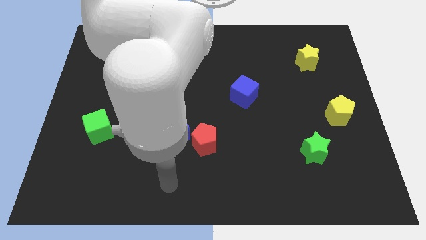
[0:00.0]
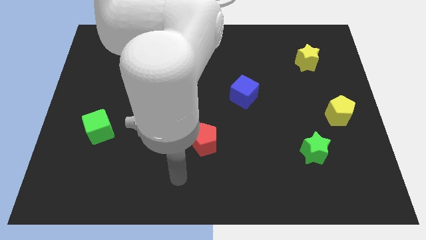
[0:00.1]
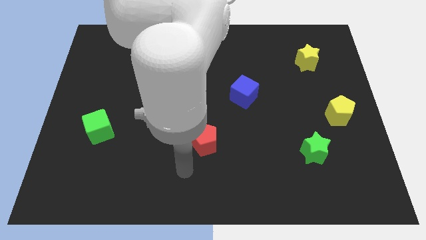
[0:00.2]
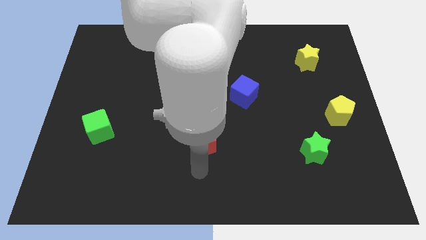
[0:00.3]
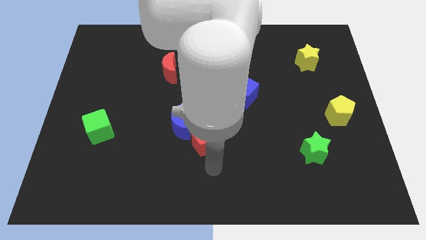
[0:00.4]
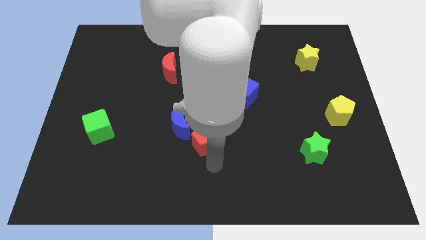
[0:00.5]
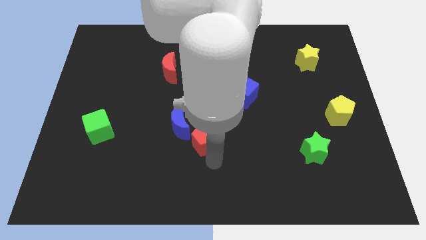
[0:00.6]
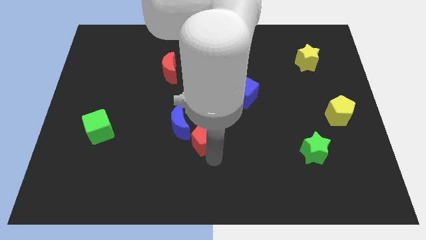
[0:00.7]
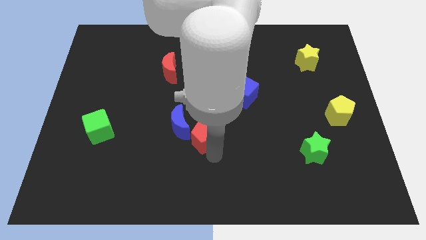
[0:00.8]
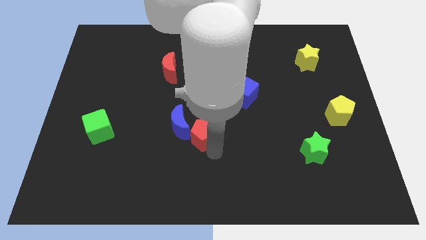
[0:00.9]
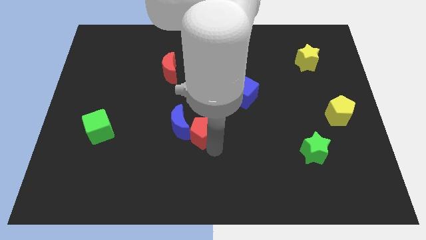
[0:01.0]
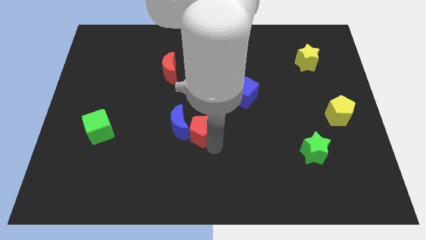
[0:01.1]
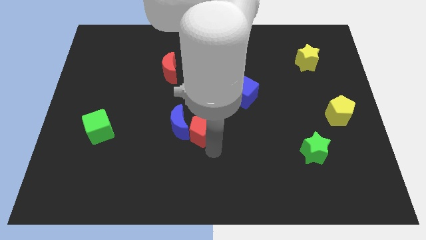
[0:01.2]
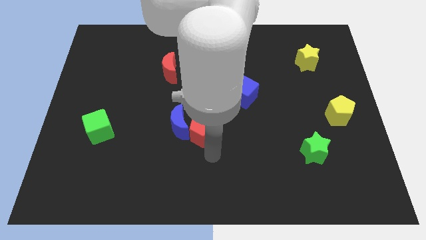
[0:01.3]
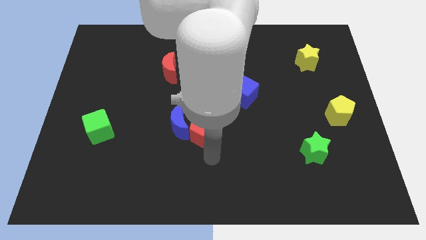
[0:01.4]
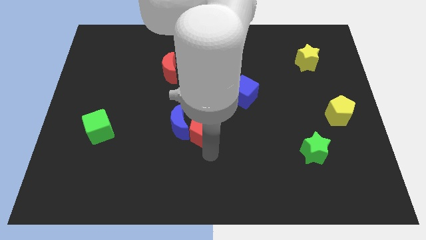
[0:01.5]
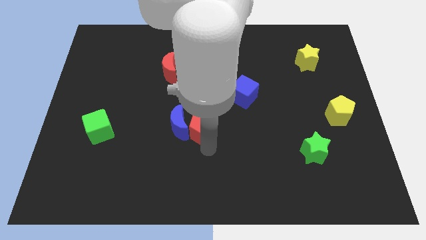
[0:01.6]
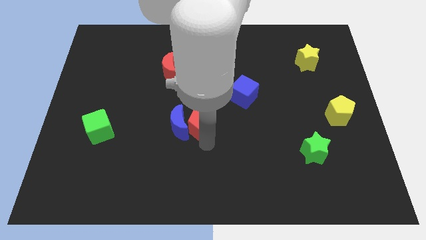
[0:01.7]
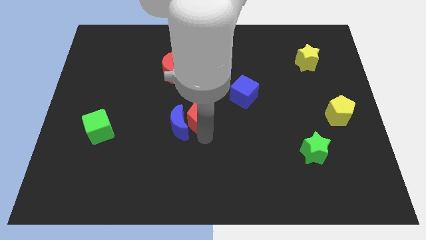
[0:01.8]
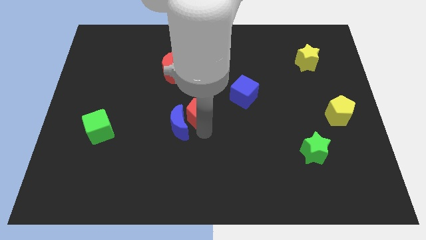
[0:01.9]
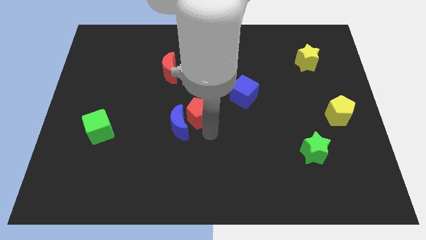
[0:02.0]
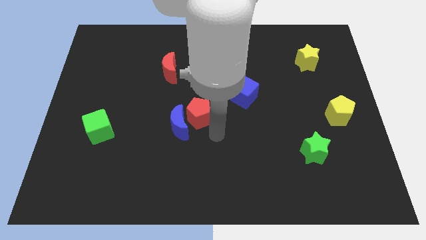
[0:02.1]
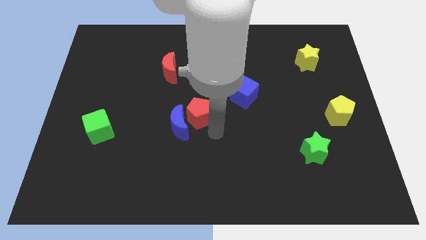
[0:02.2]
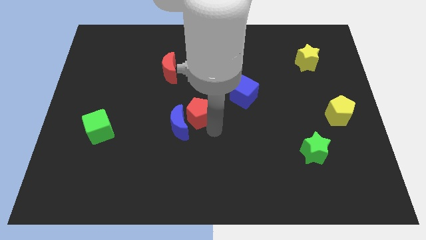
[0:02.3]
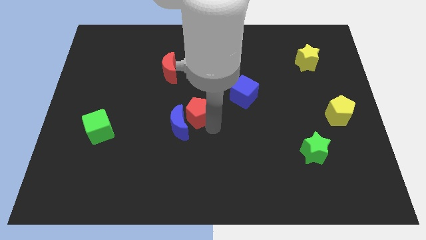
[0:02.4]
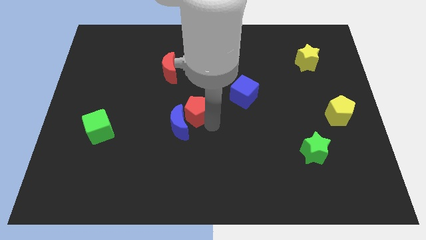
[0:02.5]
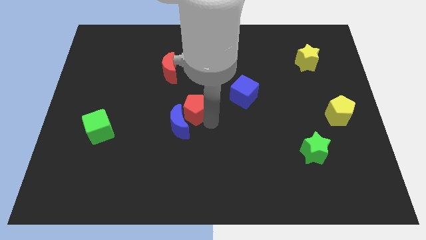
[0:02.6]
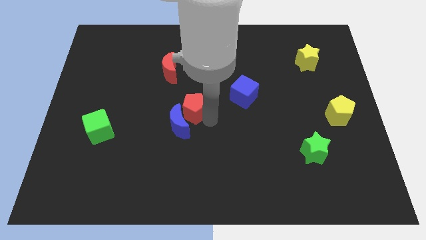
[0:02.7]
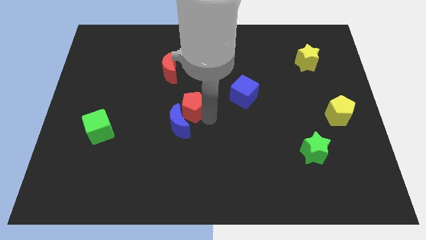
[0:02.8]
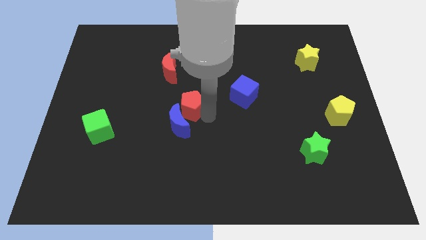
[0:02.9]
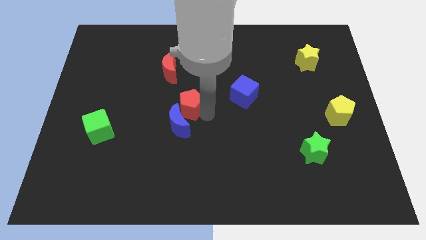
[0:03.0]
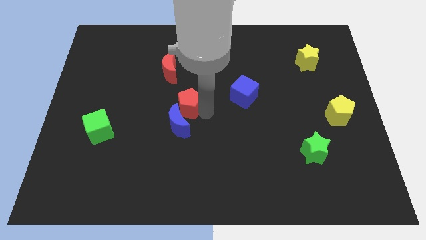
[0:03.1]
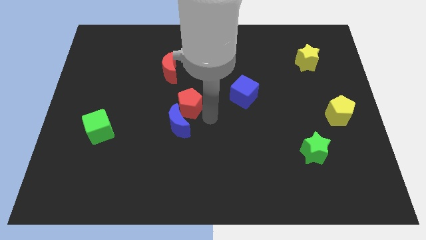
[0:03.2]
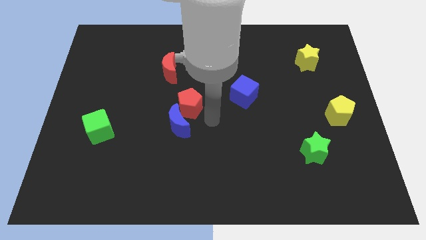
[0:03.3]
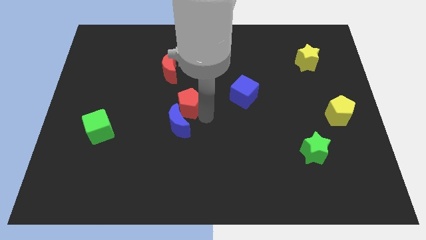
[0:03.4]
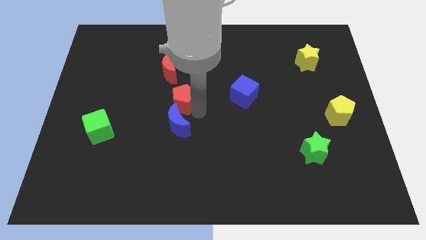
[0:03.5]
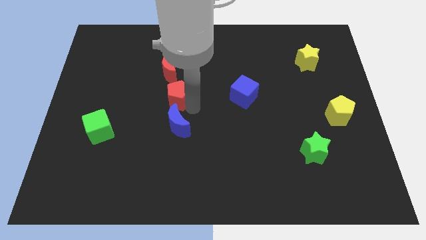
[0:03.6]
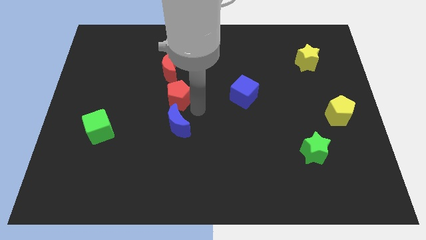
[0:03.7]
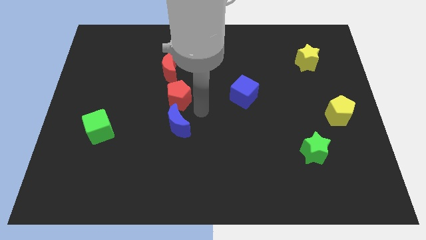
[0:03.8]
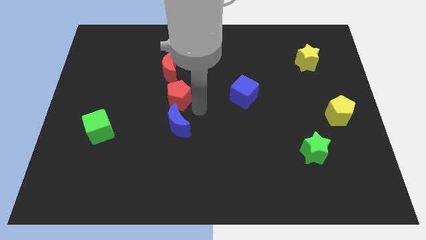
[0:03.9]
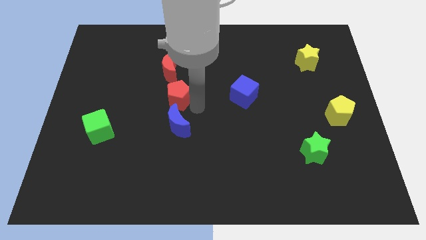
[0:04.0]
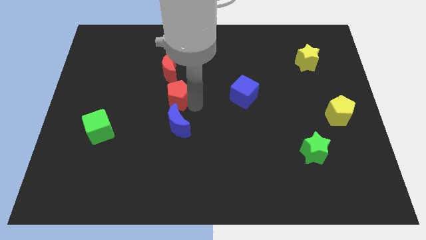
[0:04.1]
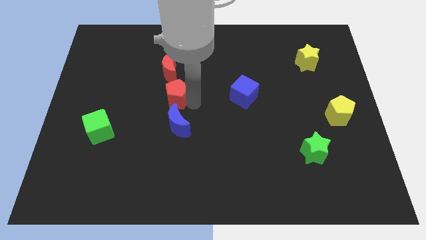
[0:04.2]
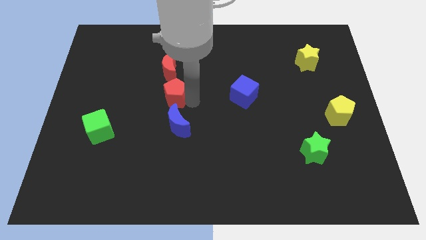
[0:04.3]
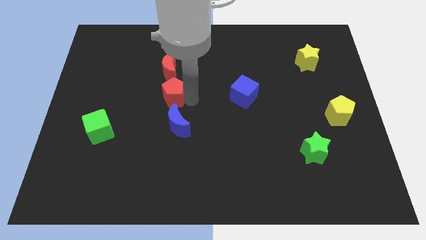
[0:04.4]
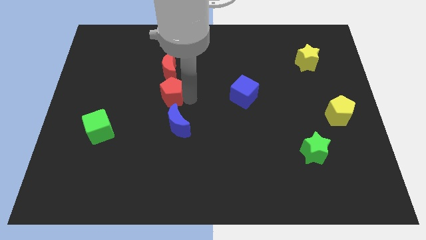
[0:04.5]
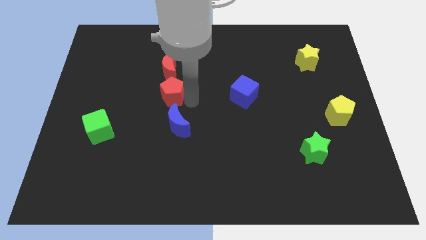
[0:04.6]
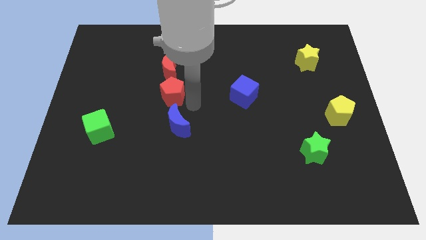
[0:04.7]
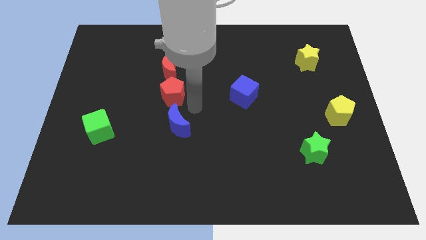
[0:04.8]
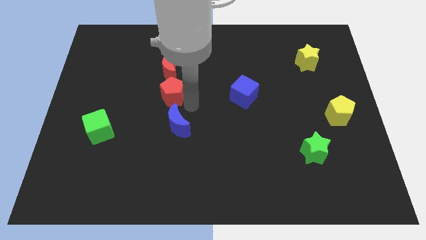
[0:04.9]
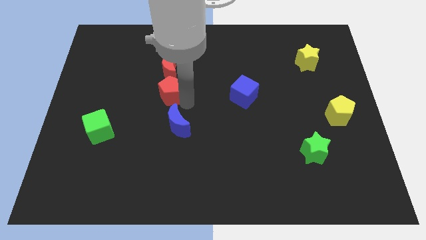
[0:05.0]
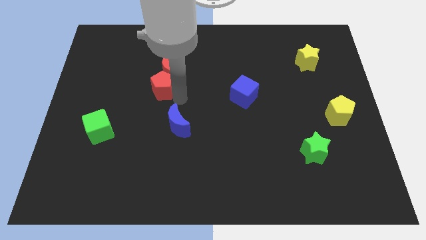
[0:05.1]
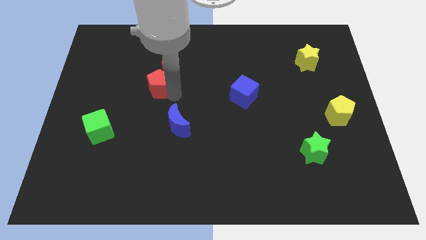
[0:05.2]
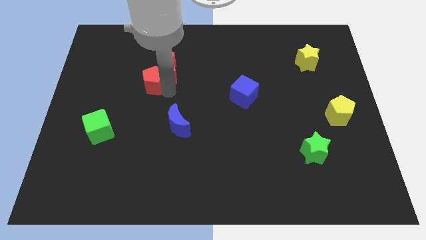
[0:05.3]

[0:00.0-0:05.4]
move the red pentagon up and left diagonally

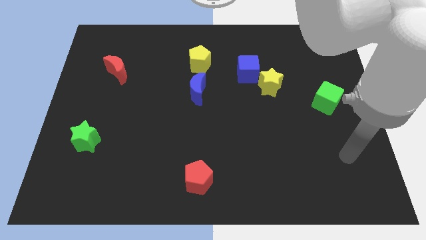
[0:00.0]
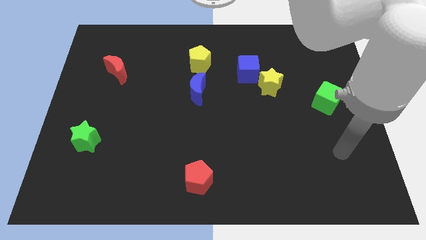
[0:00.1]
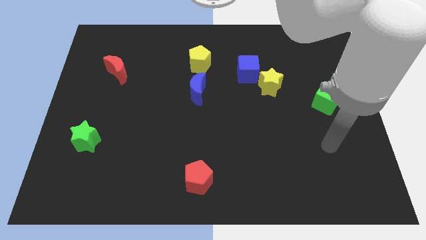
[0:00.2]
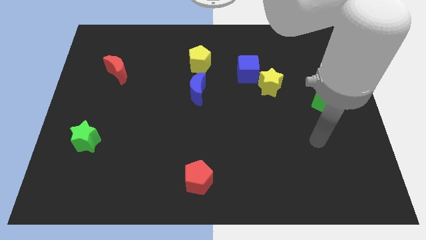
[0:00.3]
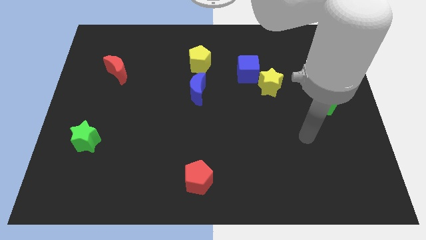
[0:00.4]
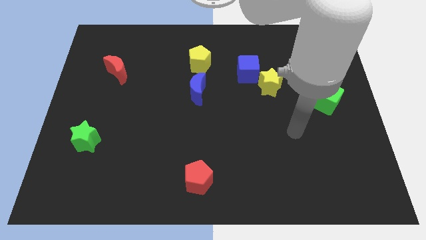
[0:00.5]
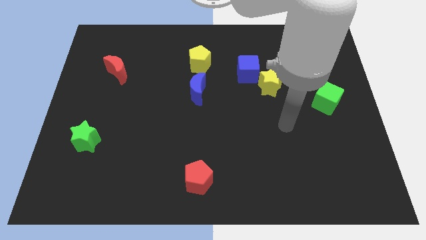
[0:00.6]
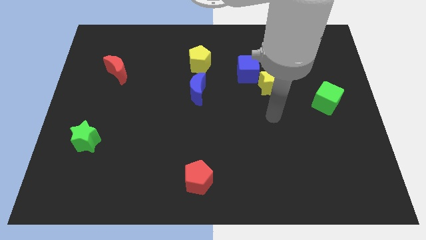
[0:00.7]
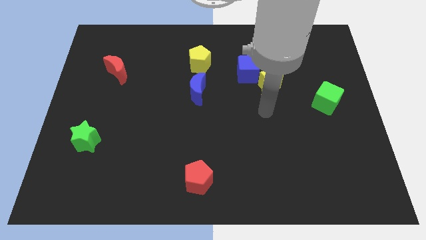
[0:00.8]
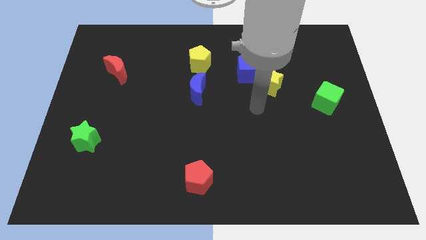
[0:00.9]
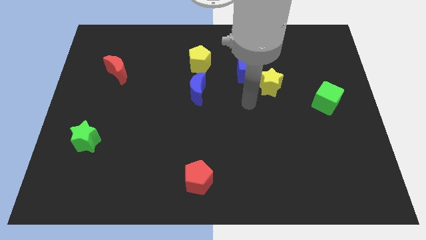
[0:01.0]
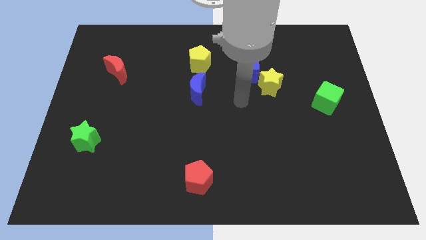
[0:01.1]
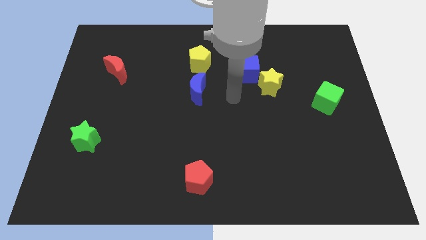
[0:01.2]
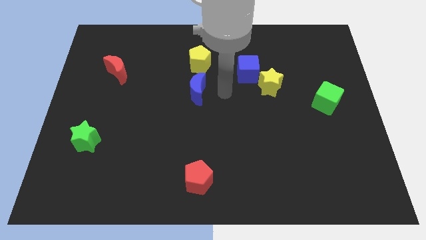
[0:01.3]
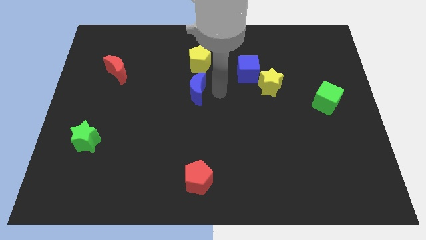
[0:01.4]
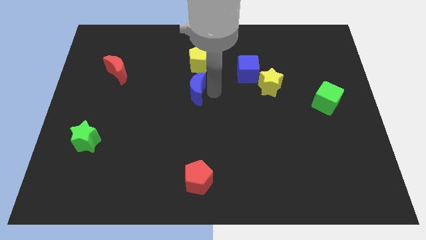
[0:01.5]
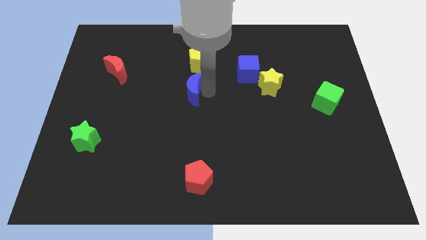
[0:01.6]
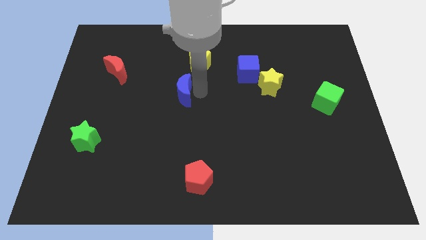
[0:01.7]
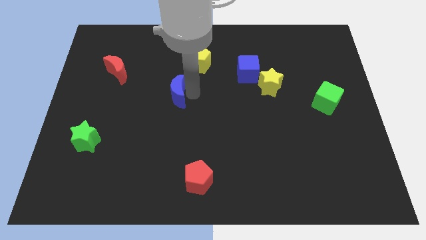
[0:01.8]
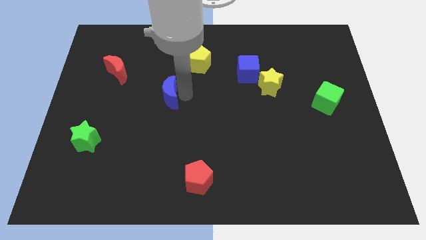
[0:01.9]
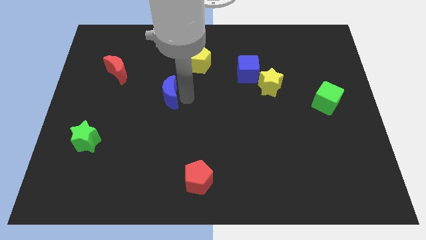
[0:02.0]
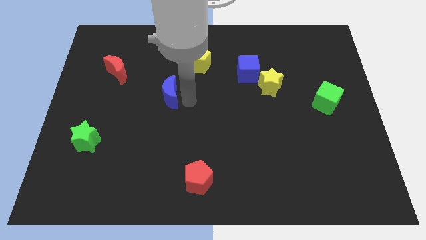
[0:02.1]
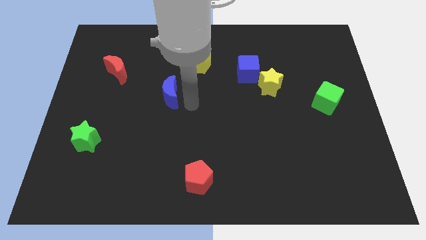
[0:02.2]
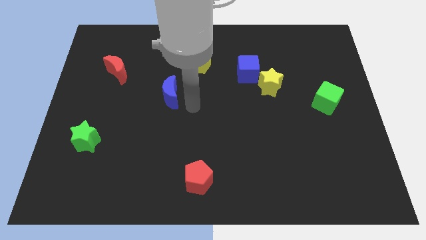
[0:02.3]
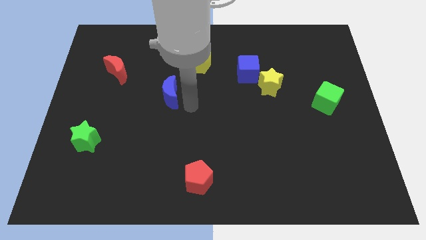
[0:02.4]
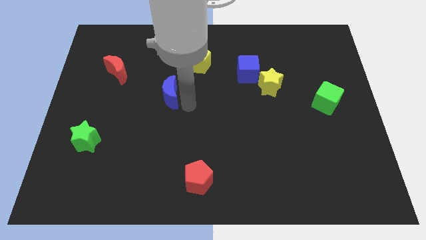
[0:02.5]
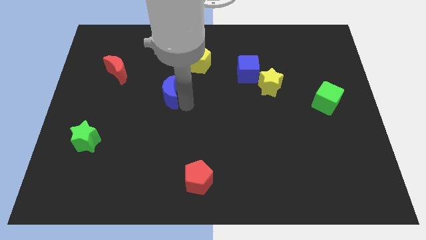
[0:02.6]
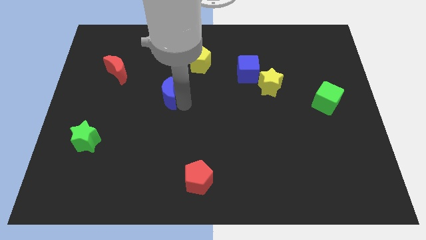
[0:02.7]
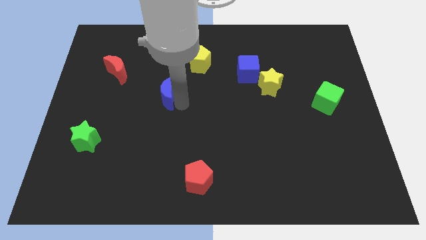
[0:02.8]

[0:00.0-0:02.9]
slightly push the blue moon left

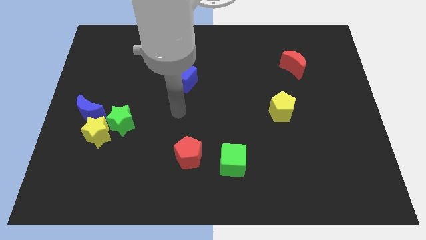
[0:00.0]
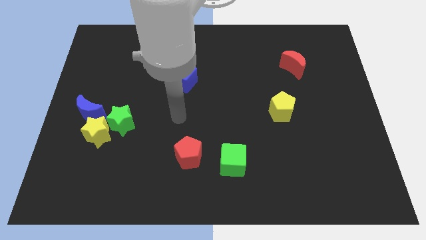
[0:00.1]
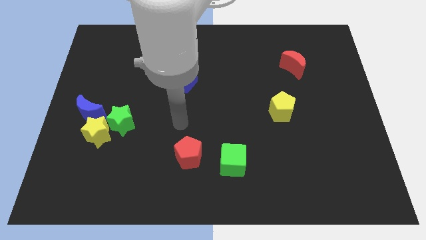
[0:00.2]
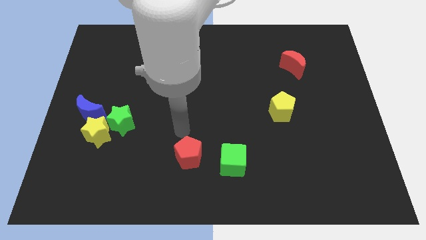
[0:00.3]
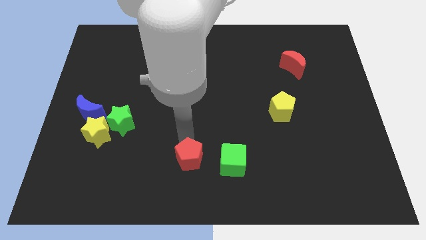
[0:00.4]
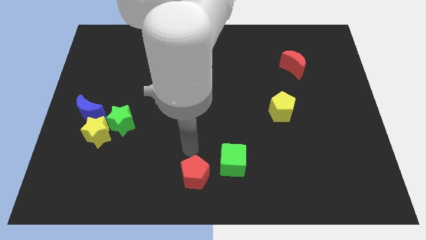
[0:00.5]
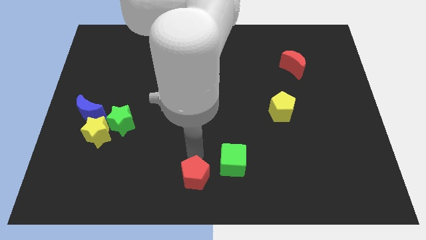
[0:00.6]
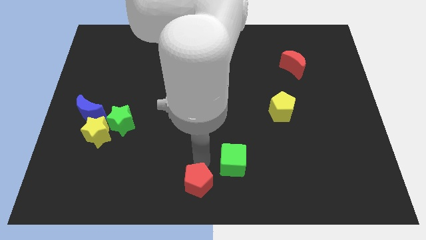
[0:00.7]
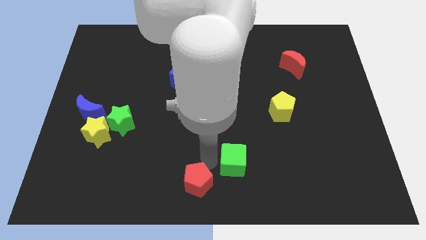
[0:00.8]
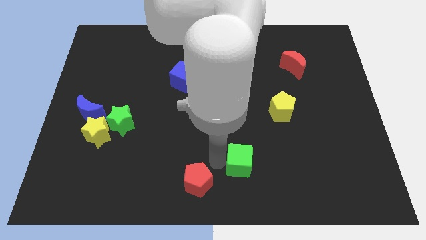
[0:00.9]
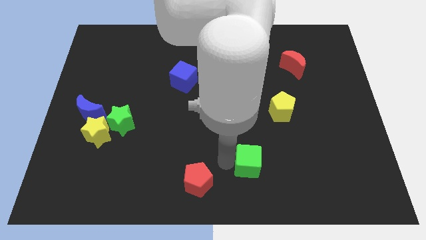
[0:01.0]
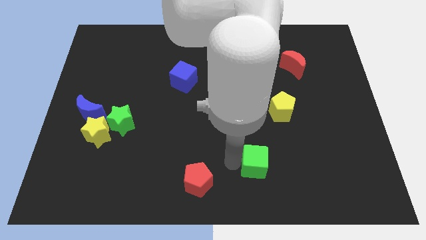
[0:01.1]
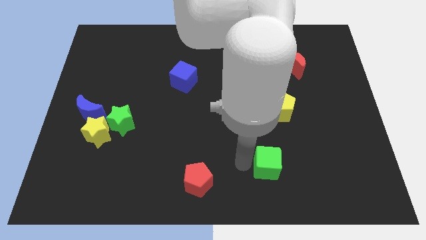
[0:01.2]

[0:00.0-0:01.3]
slightly push the green cube right
